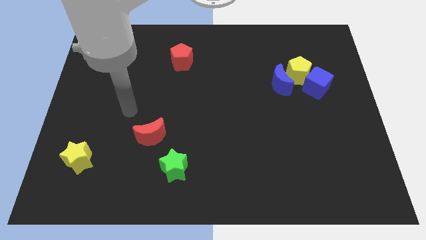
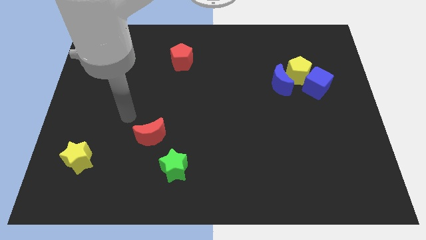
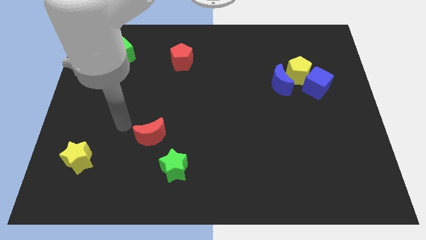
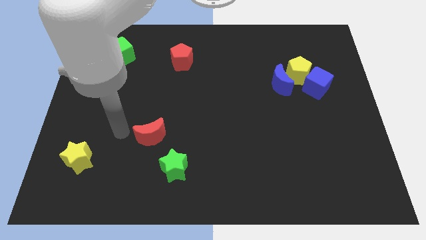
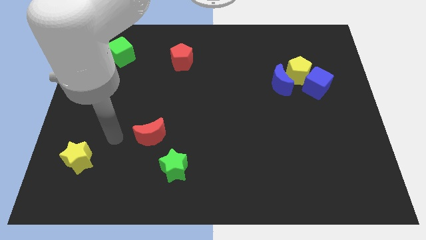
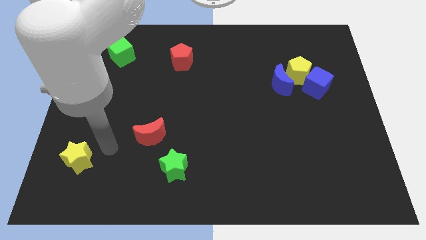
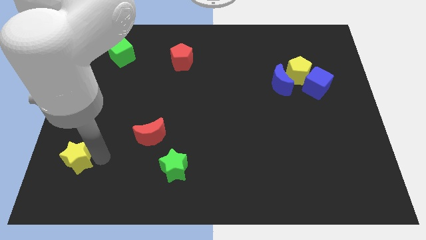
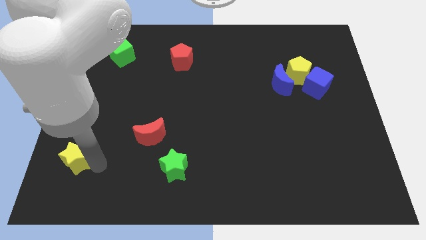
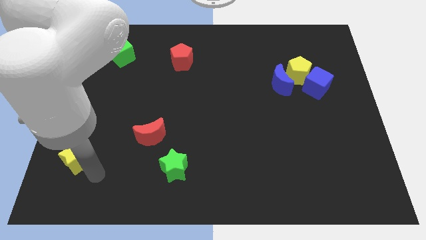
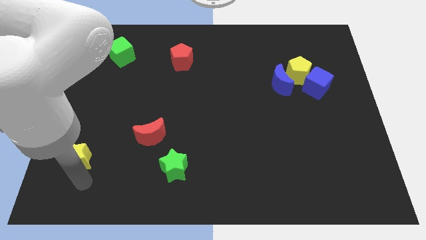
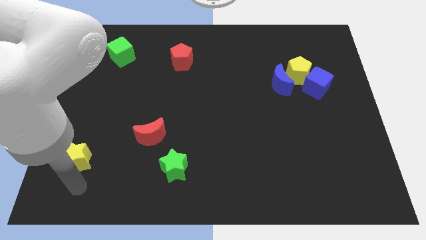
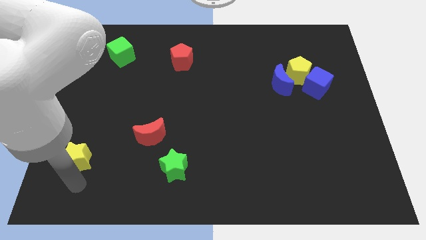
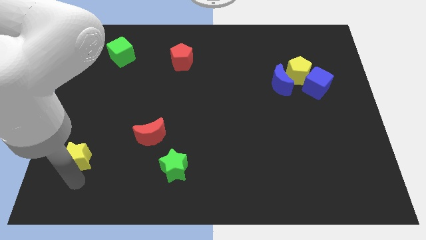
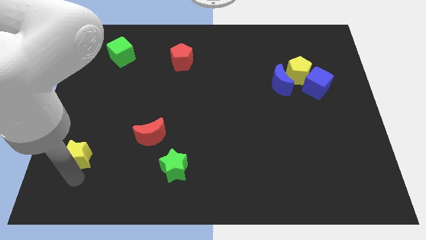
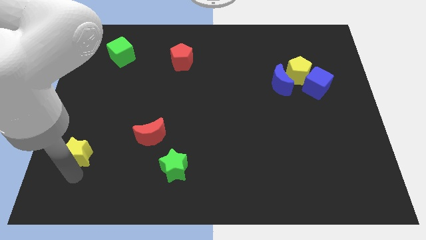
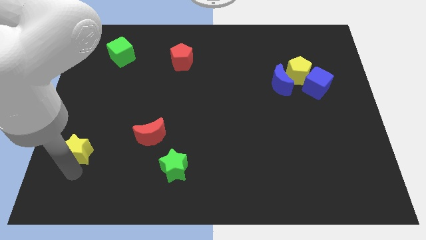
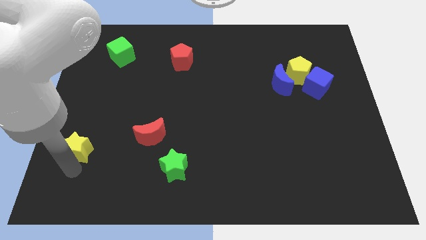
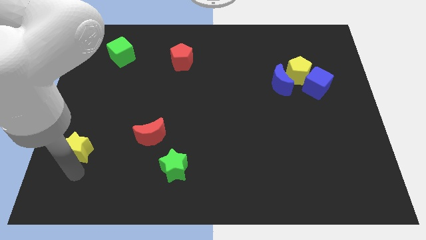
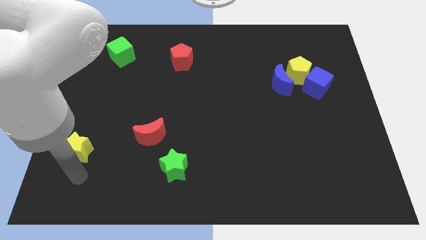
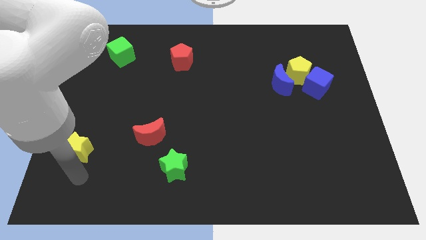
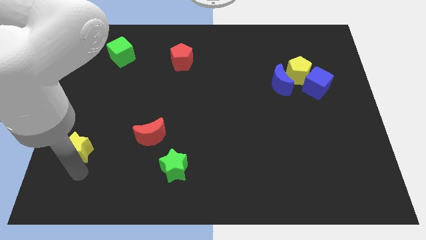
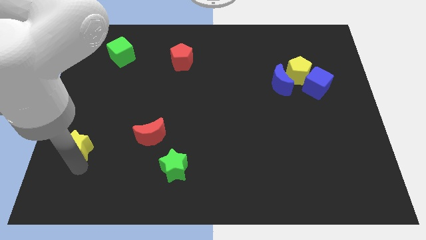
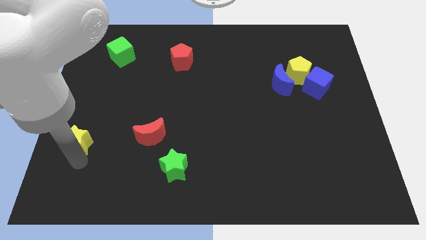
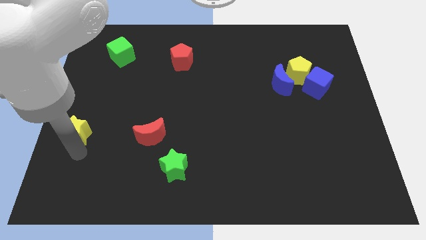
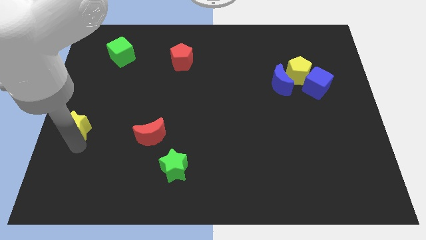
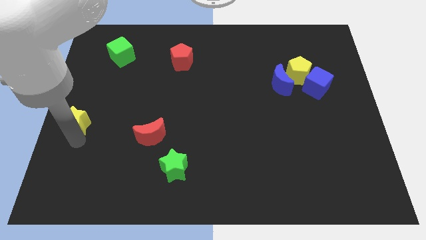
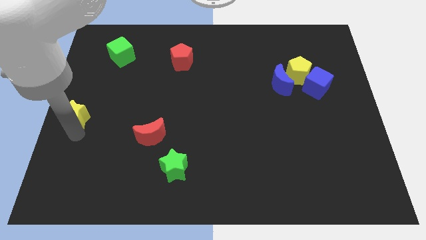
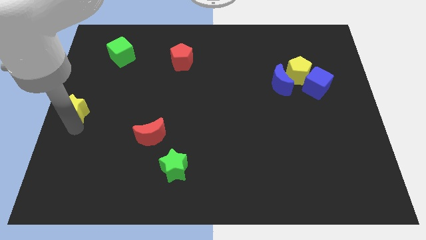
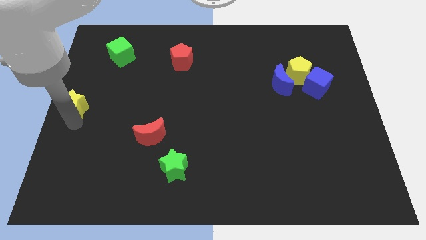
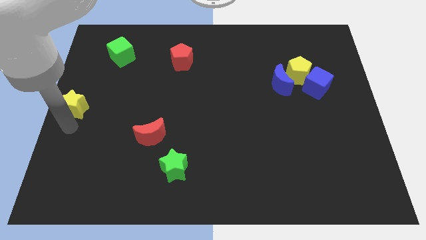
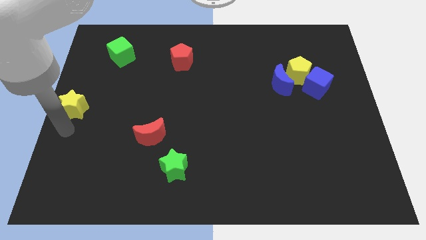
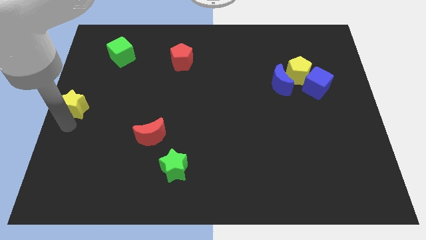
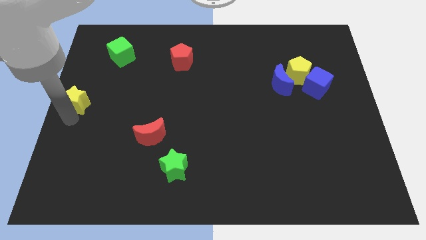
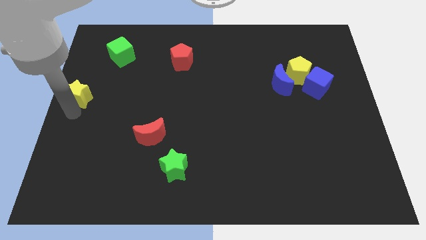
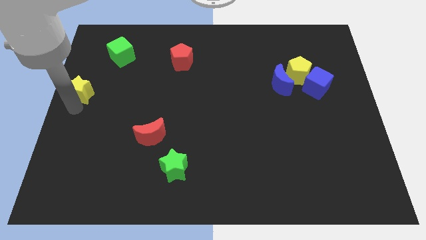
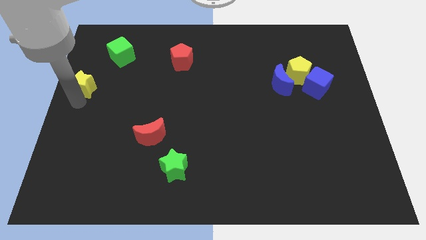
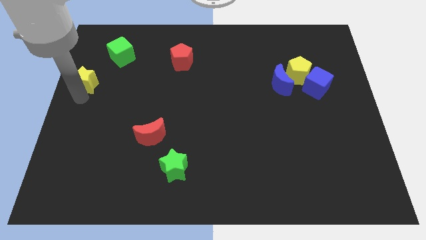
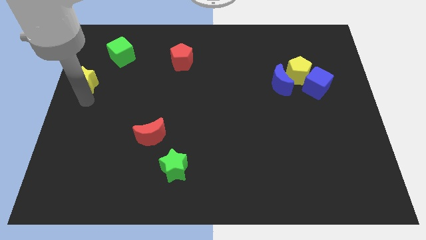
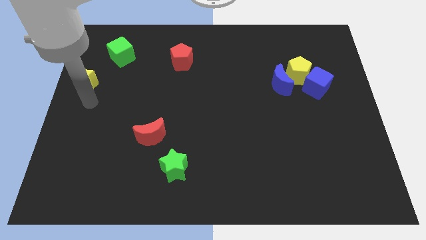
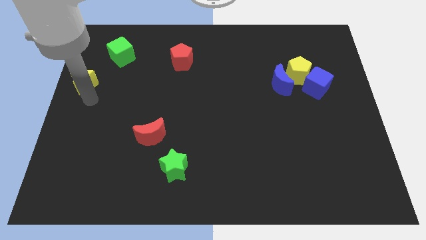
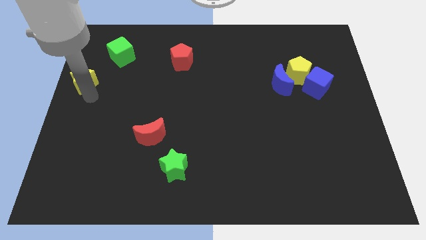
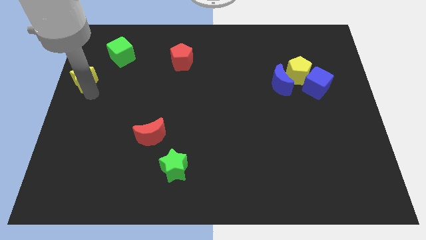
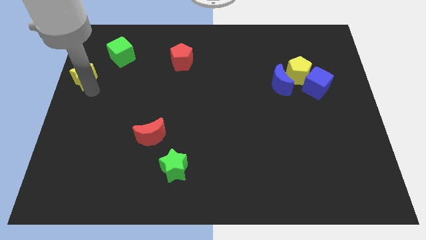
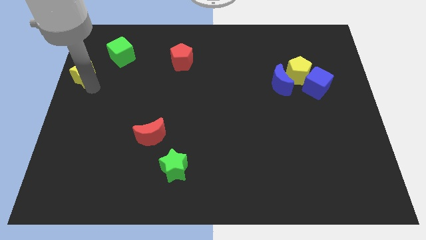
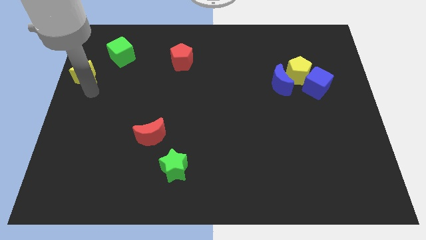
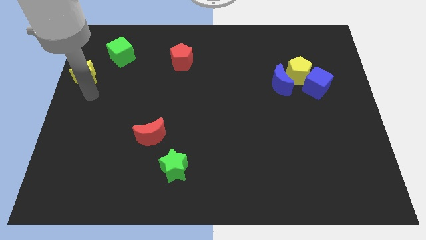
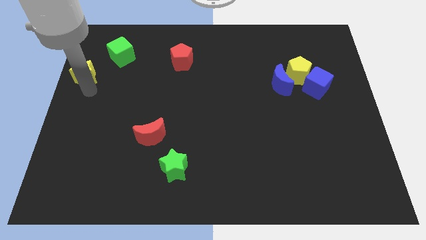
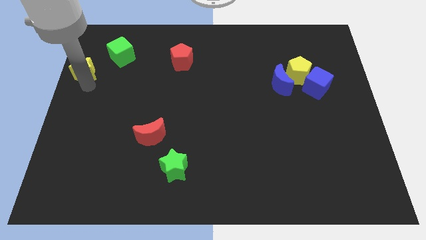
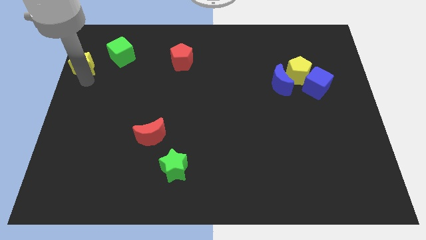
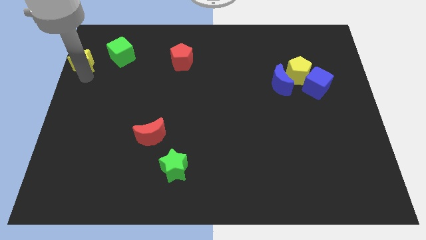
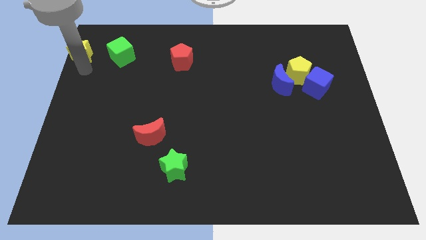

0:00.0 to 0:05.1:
slide the yellow star to the upper left corner

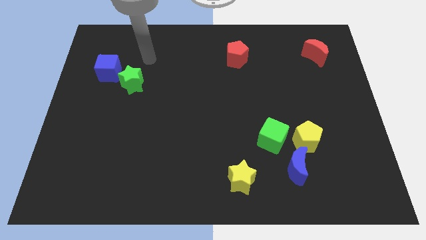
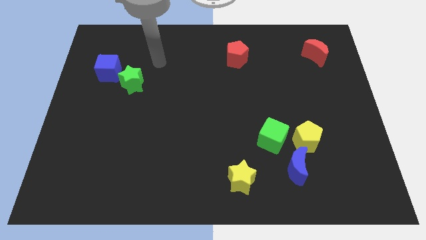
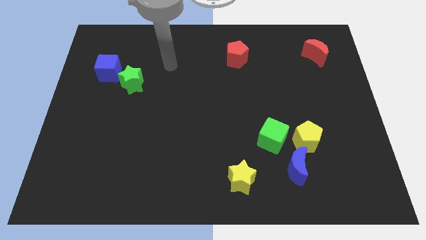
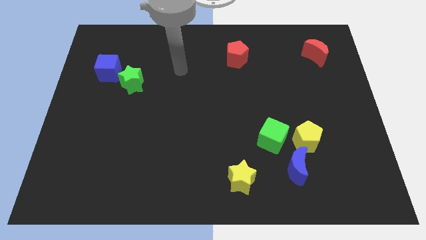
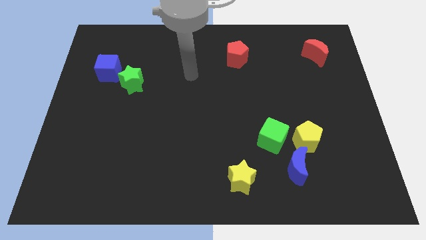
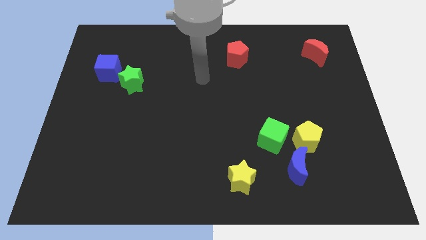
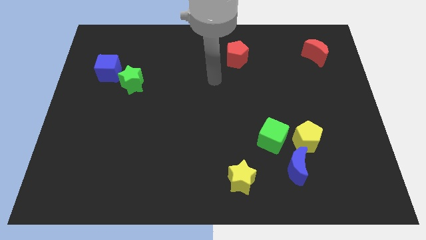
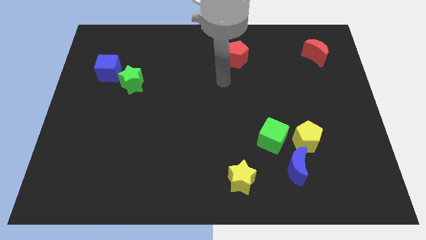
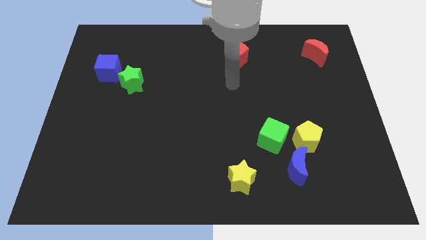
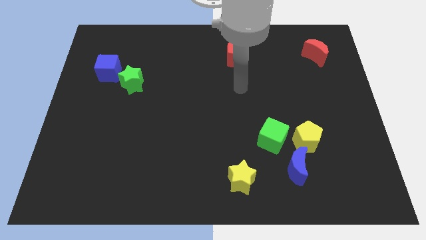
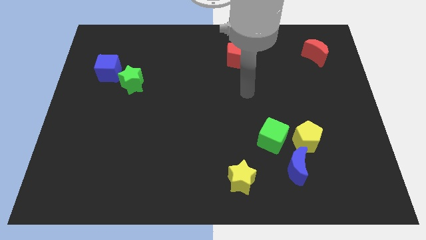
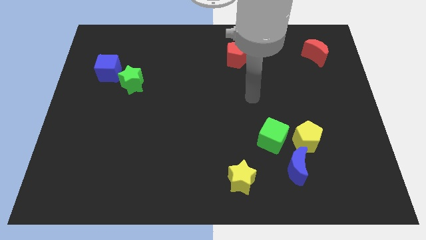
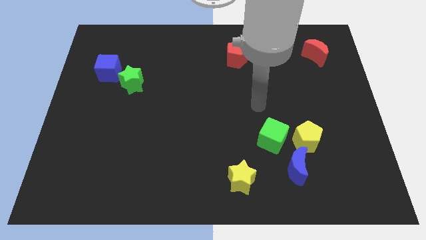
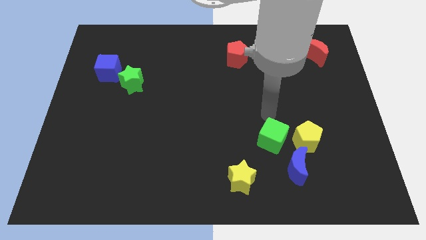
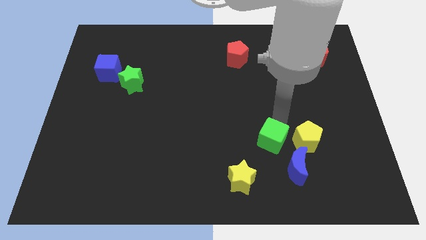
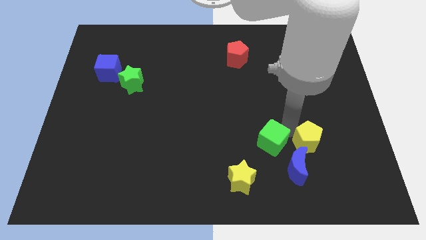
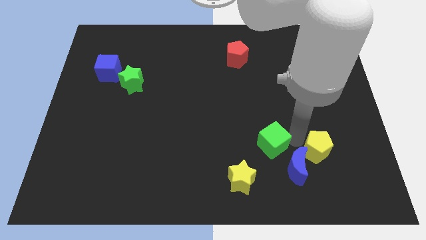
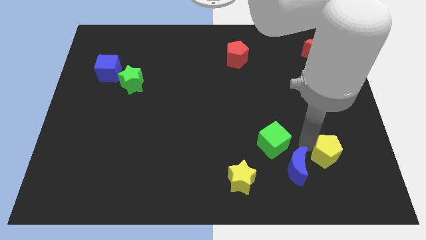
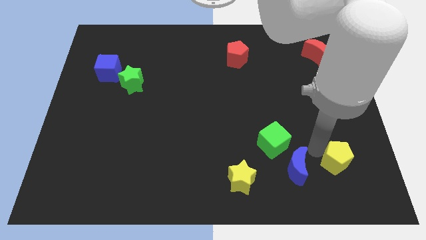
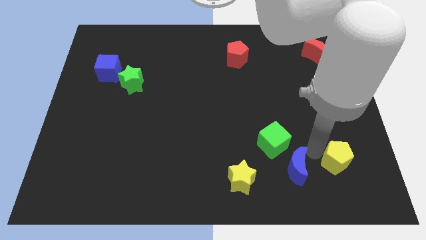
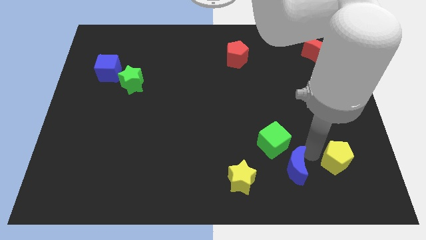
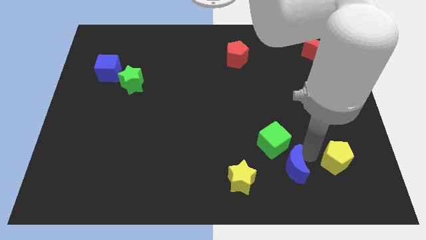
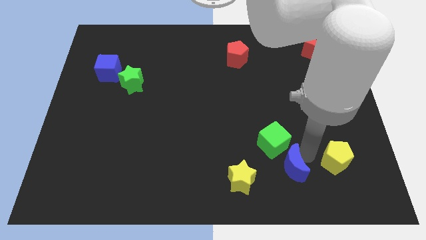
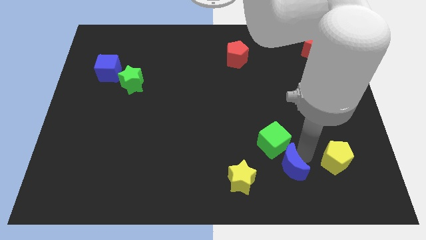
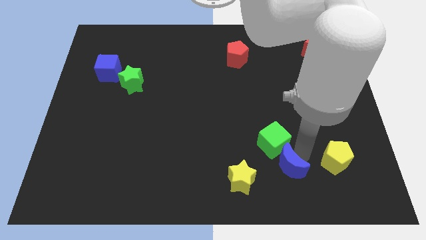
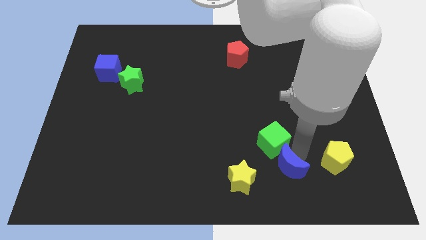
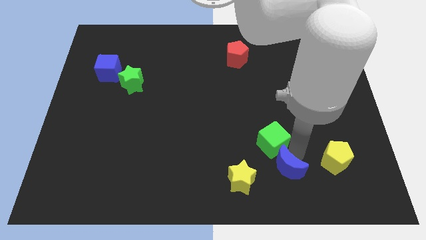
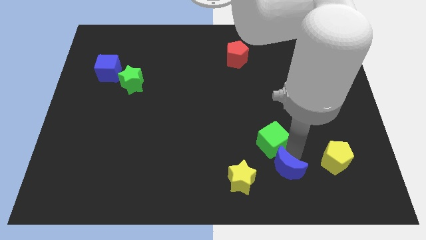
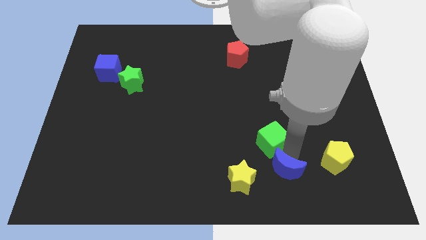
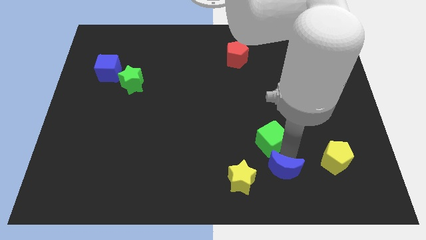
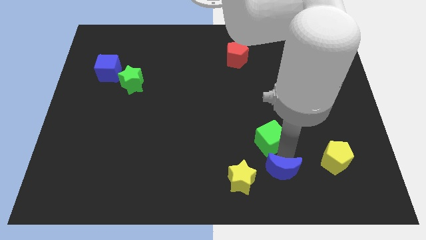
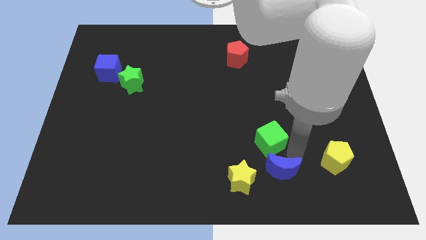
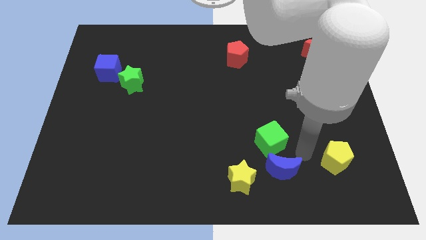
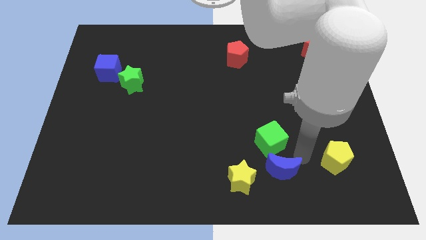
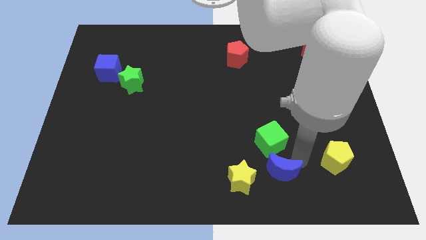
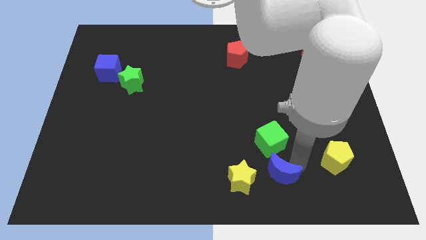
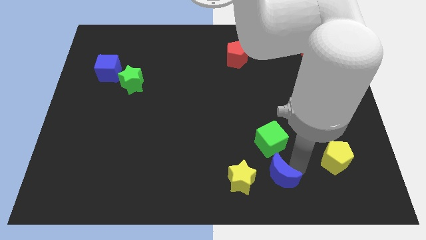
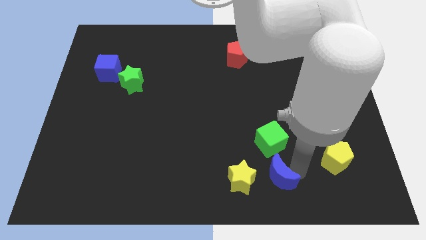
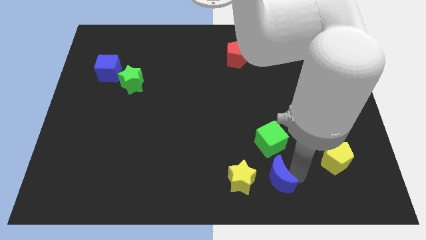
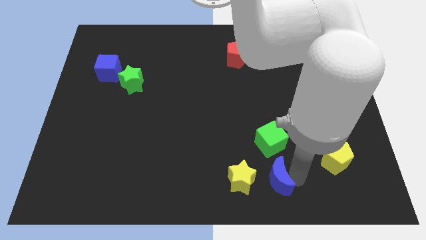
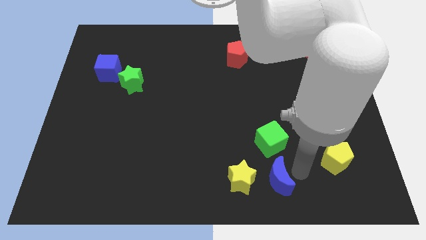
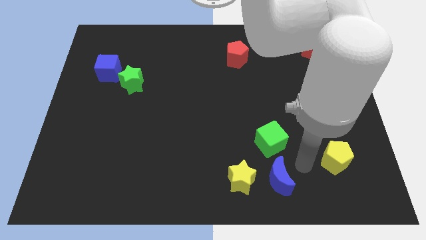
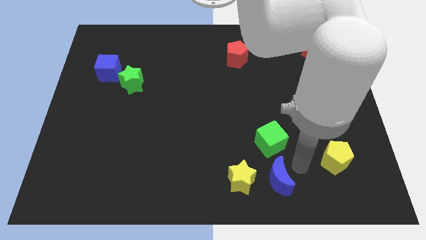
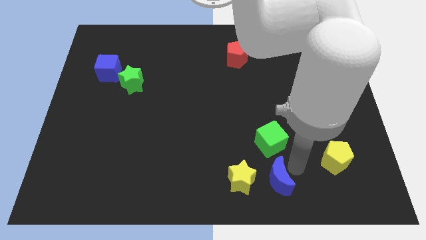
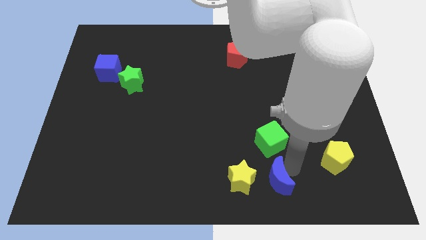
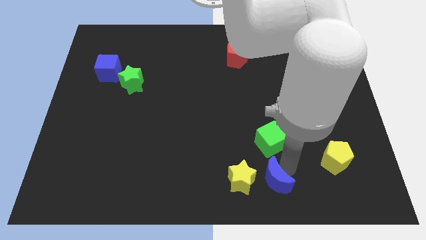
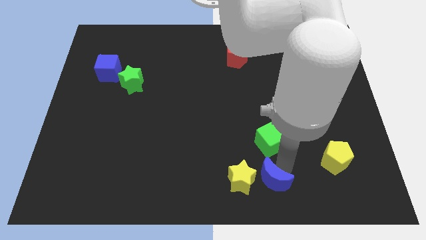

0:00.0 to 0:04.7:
put the blue moon to the bottom
